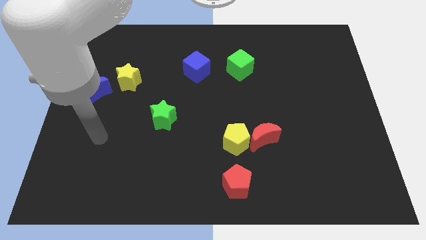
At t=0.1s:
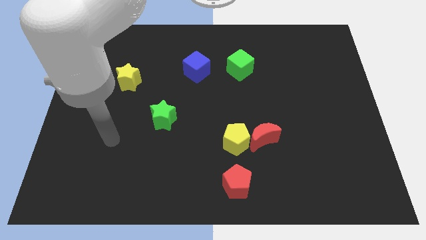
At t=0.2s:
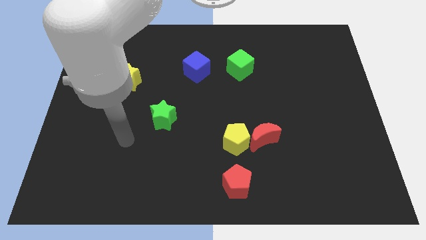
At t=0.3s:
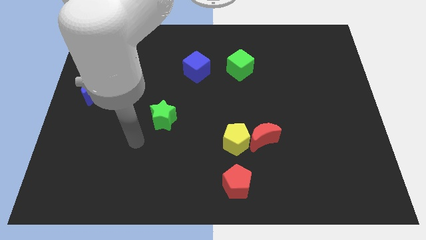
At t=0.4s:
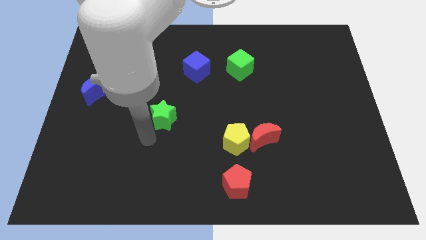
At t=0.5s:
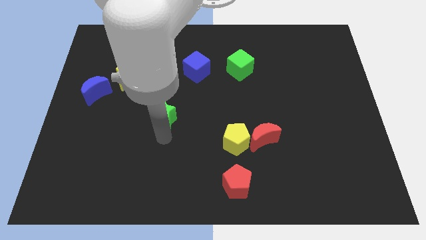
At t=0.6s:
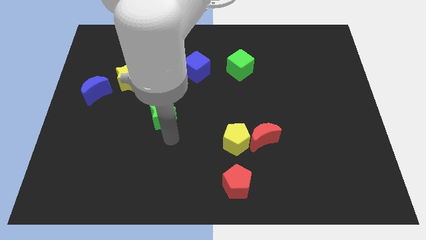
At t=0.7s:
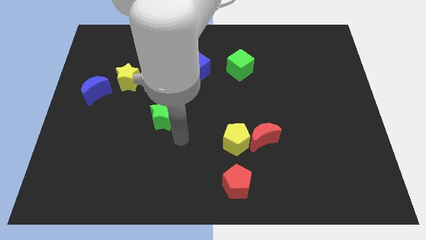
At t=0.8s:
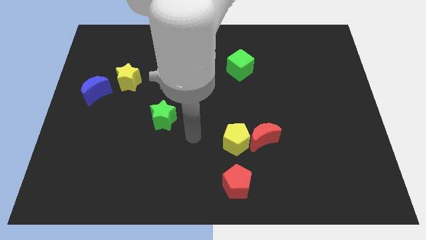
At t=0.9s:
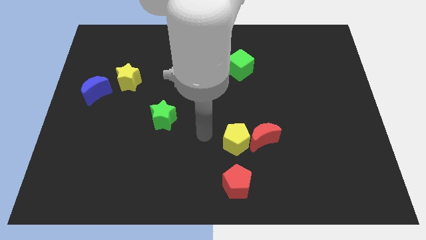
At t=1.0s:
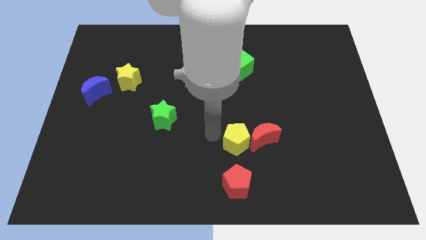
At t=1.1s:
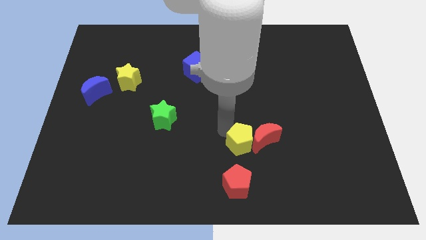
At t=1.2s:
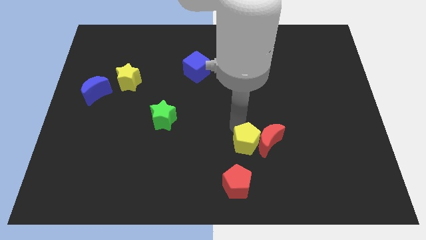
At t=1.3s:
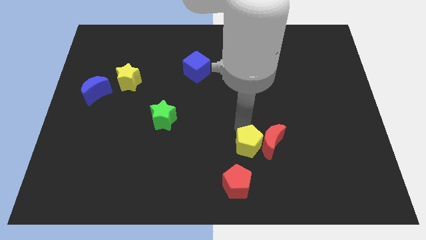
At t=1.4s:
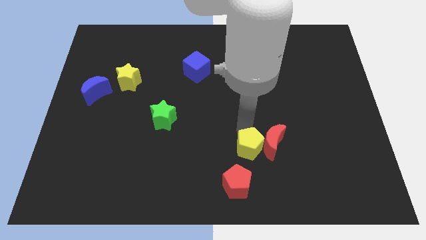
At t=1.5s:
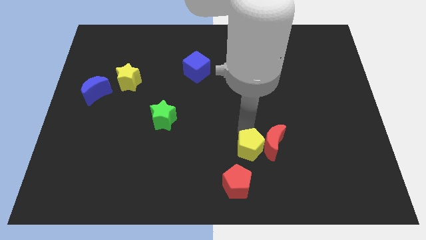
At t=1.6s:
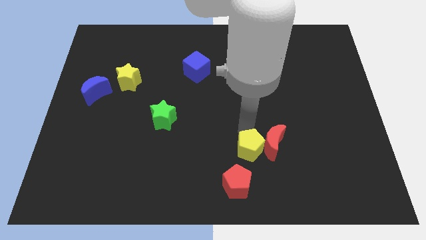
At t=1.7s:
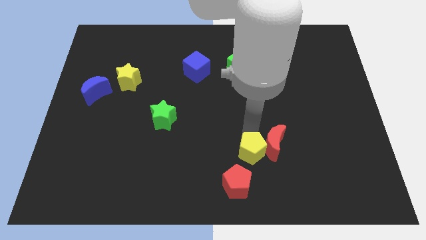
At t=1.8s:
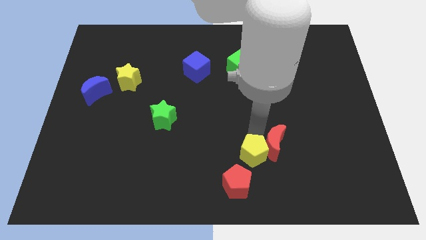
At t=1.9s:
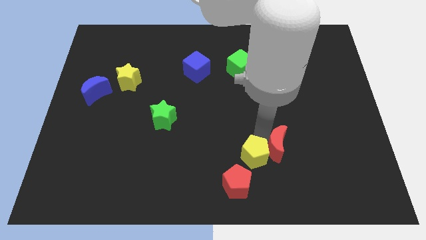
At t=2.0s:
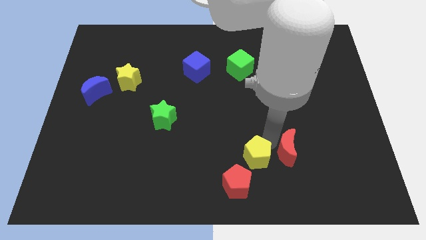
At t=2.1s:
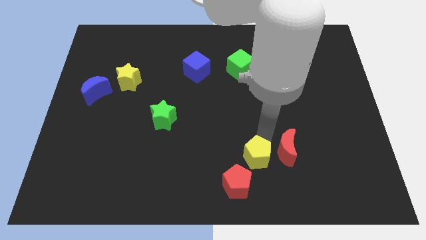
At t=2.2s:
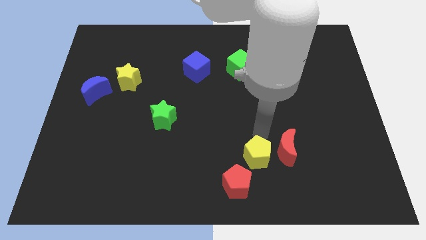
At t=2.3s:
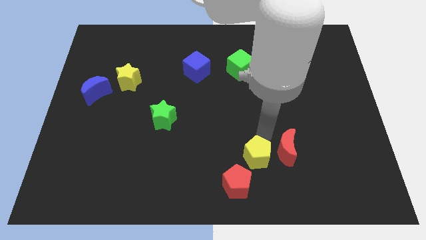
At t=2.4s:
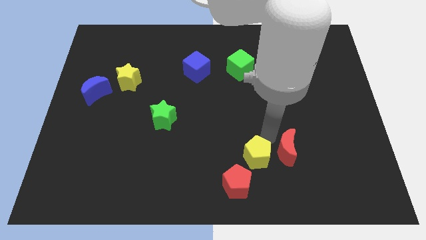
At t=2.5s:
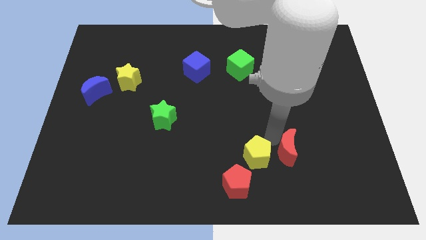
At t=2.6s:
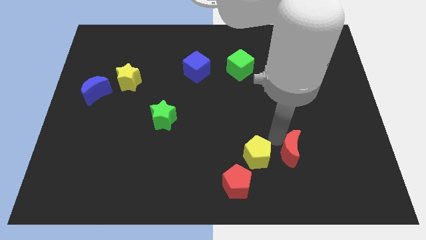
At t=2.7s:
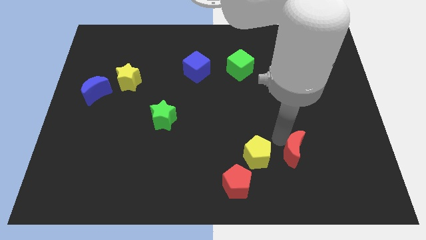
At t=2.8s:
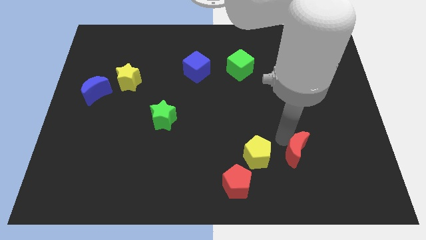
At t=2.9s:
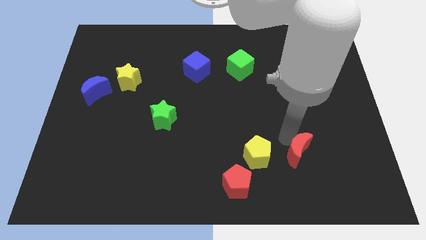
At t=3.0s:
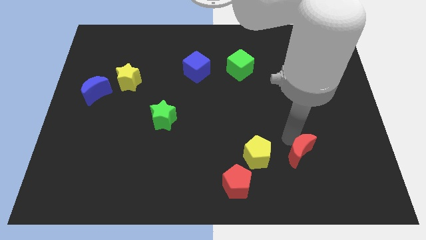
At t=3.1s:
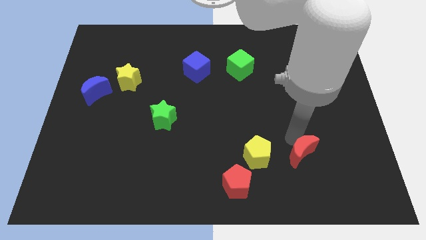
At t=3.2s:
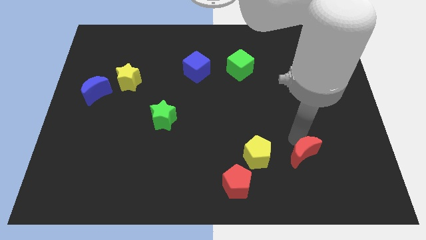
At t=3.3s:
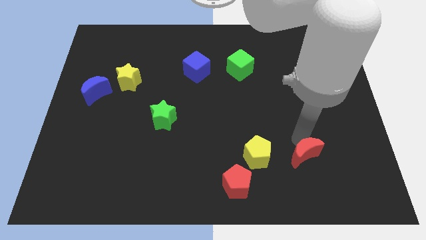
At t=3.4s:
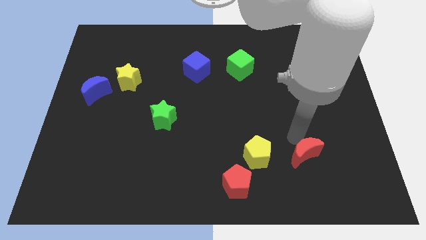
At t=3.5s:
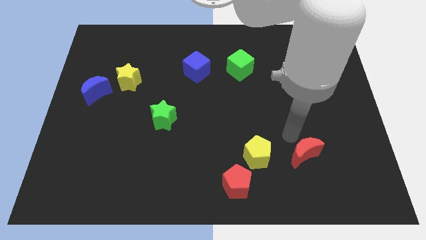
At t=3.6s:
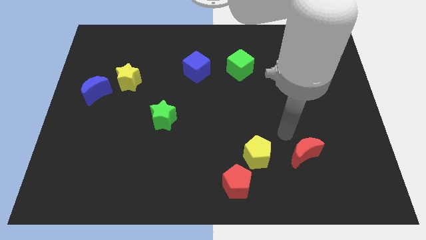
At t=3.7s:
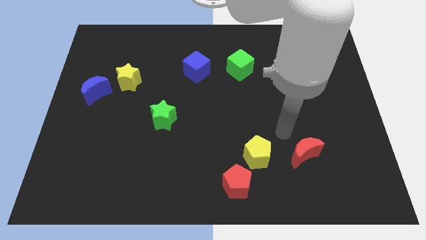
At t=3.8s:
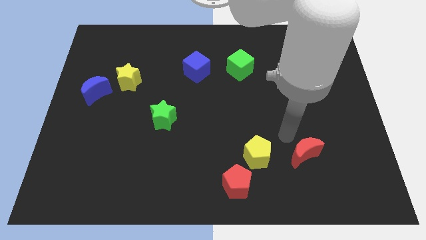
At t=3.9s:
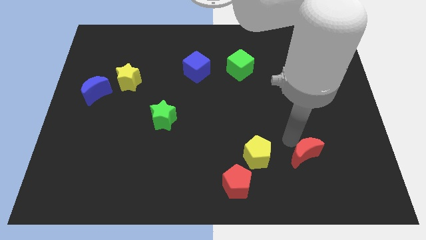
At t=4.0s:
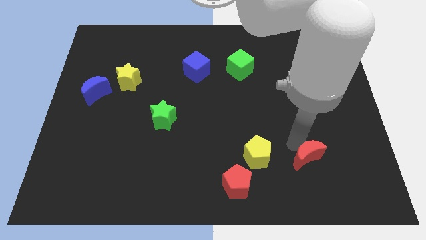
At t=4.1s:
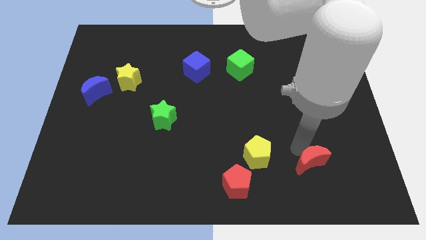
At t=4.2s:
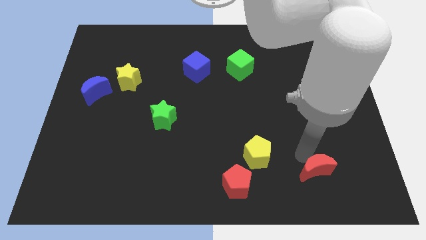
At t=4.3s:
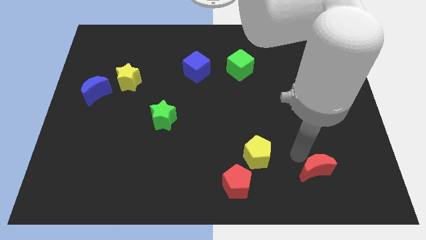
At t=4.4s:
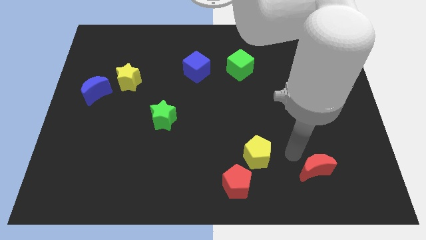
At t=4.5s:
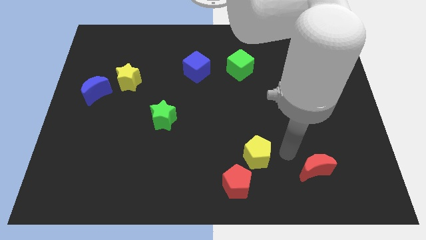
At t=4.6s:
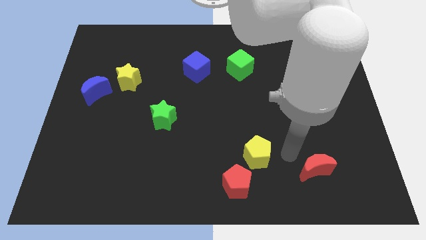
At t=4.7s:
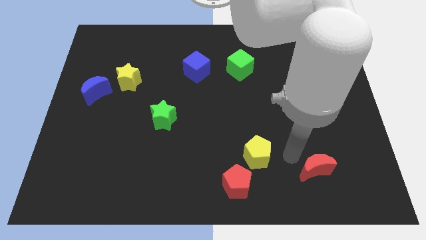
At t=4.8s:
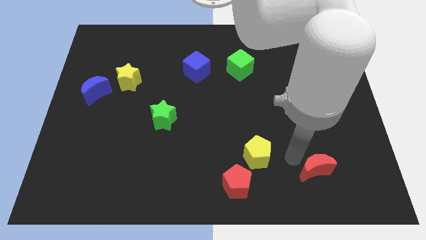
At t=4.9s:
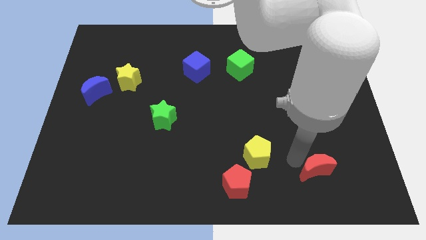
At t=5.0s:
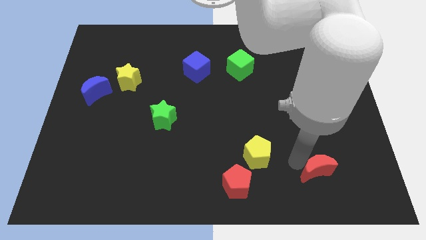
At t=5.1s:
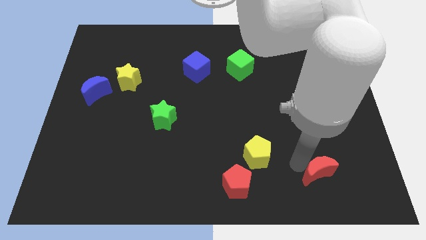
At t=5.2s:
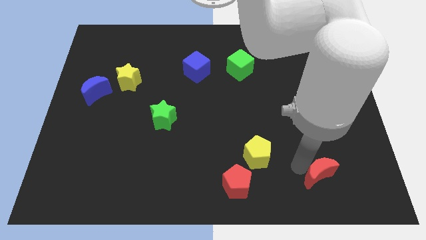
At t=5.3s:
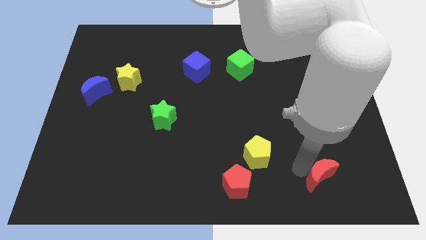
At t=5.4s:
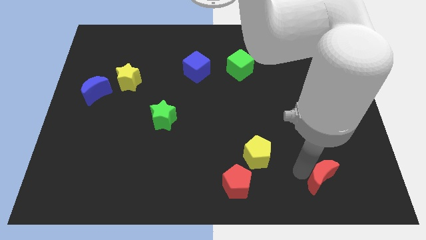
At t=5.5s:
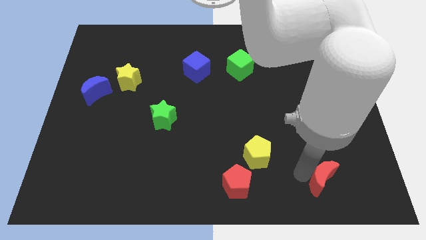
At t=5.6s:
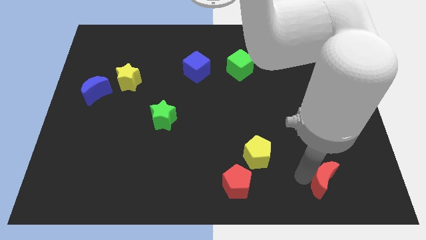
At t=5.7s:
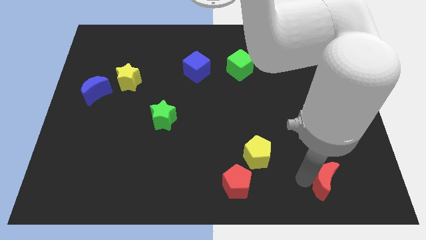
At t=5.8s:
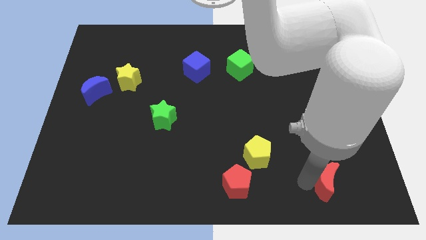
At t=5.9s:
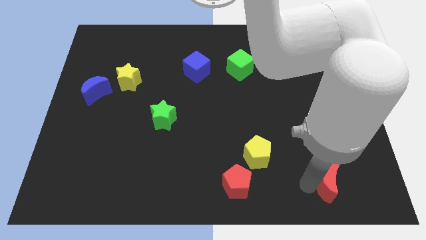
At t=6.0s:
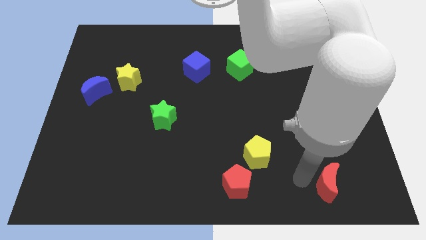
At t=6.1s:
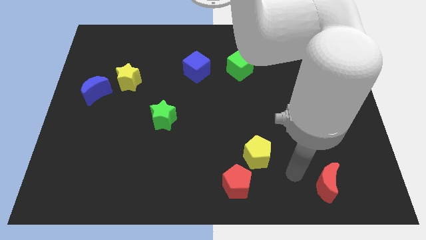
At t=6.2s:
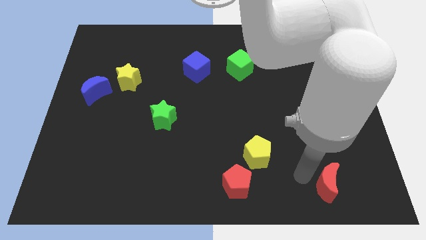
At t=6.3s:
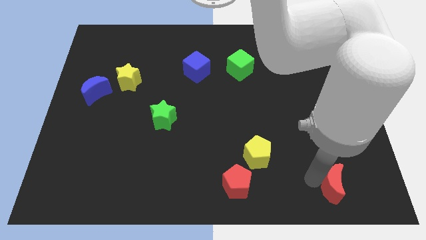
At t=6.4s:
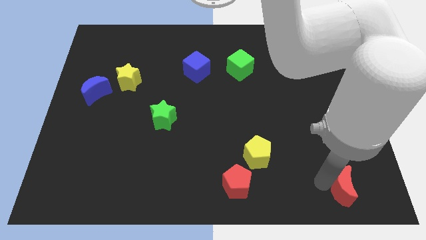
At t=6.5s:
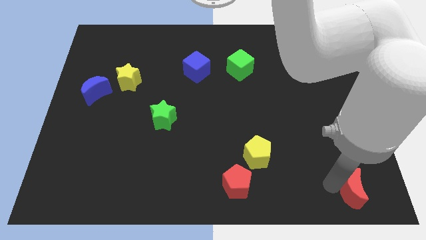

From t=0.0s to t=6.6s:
slide the red moon to the lower right corner
